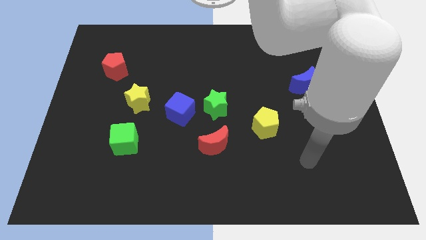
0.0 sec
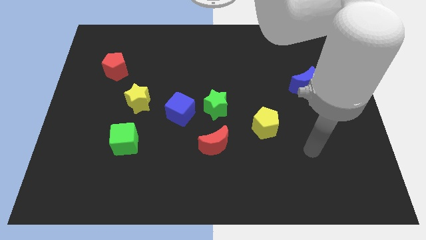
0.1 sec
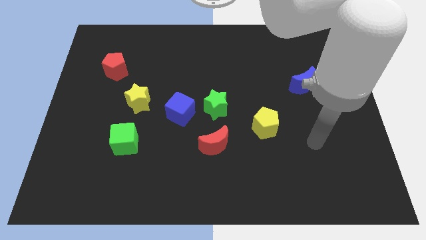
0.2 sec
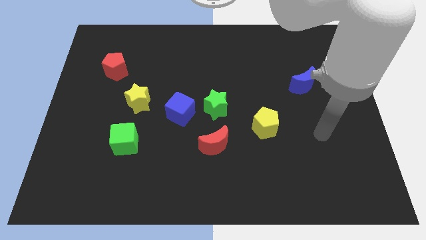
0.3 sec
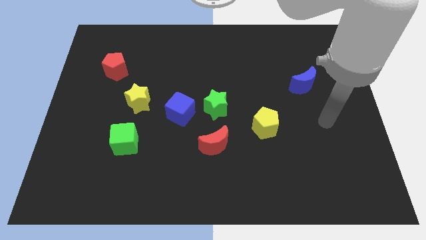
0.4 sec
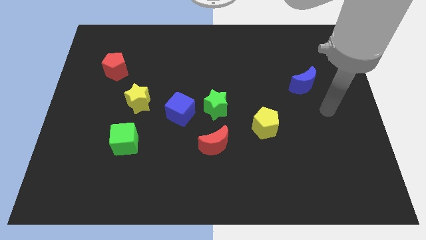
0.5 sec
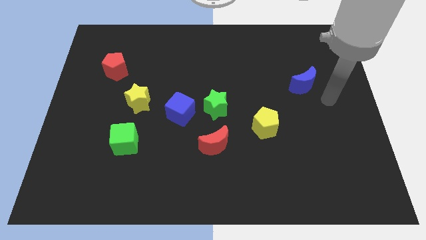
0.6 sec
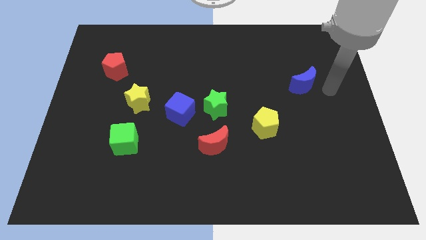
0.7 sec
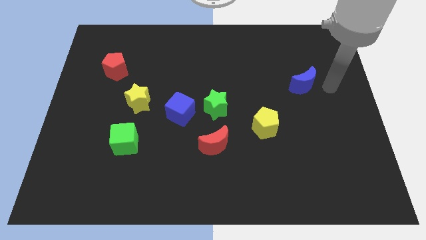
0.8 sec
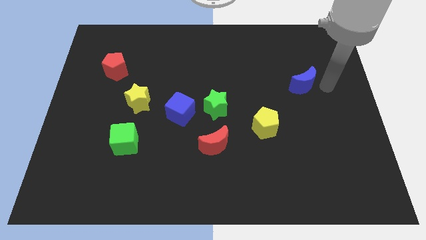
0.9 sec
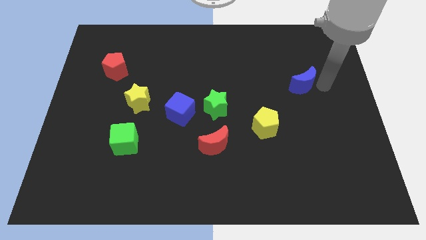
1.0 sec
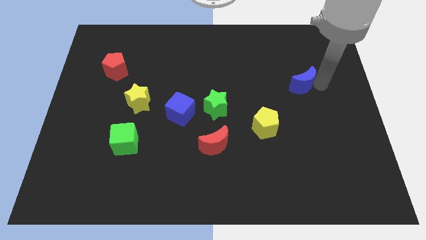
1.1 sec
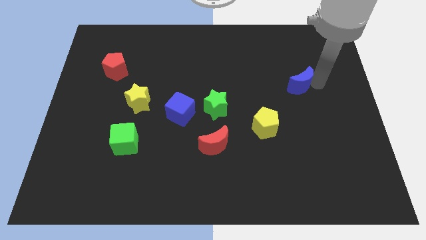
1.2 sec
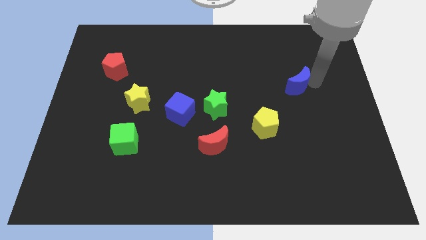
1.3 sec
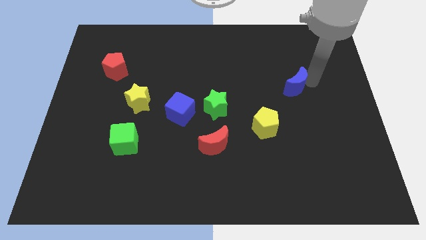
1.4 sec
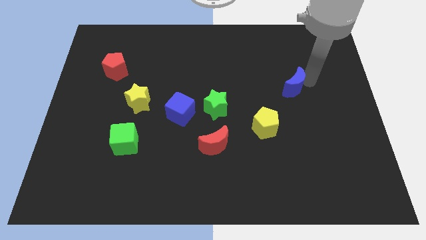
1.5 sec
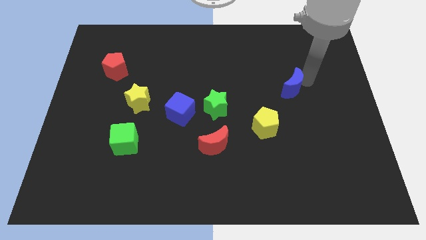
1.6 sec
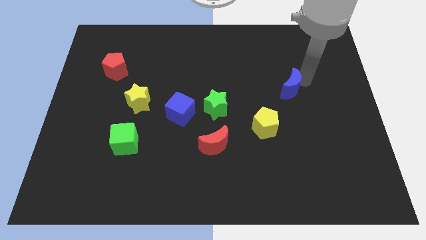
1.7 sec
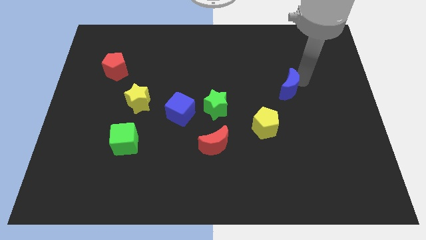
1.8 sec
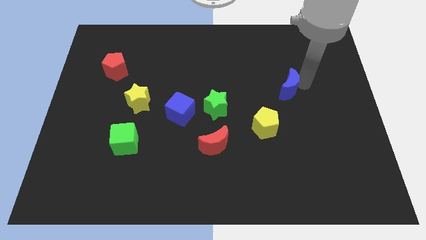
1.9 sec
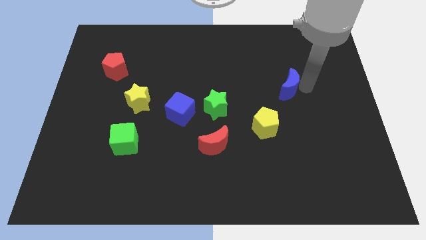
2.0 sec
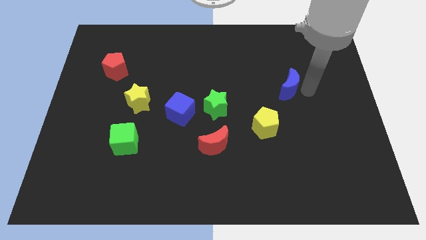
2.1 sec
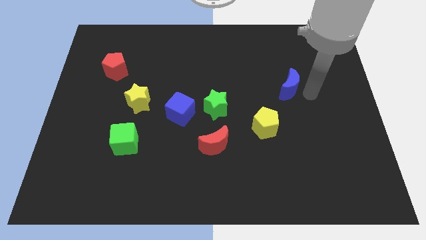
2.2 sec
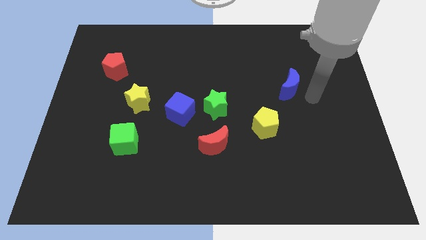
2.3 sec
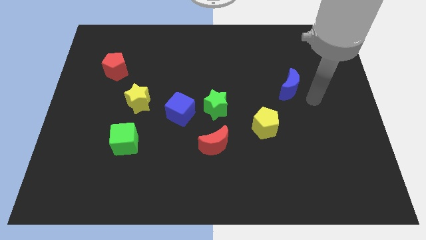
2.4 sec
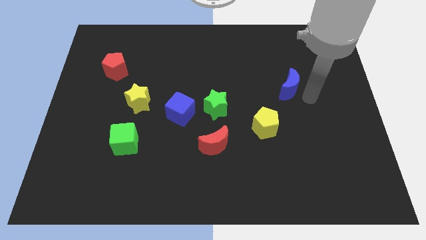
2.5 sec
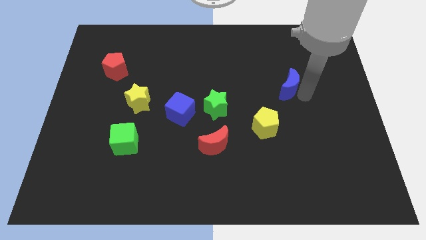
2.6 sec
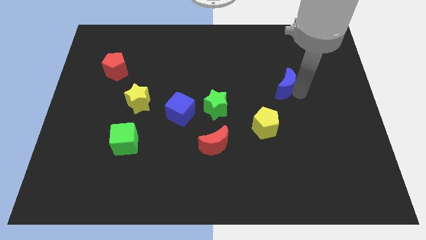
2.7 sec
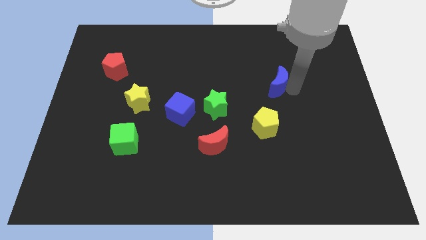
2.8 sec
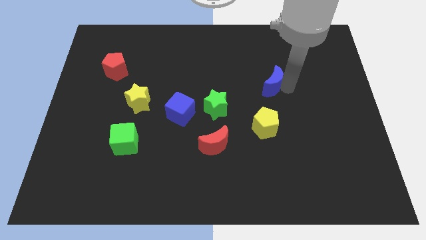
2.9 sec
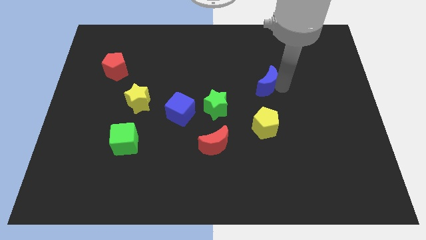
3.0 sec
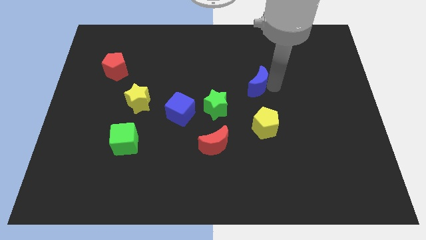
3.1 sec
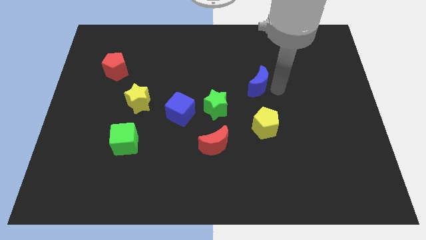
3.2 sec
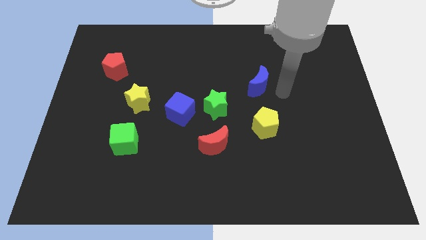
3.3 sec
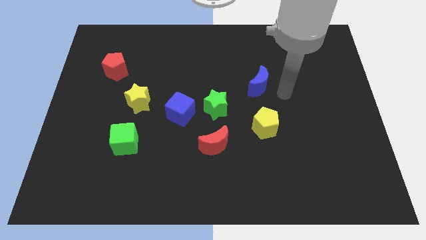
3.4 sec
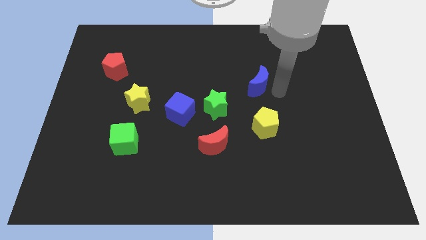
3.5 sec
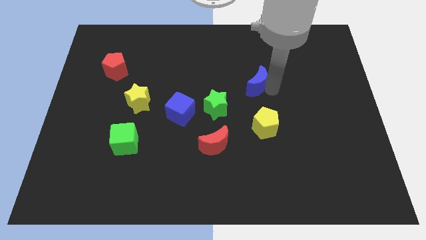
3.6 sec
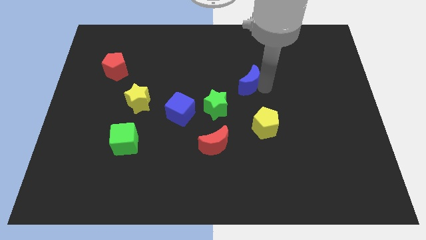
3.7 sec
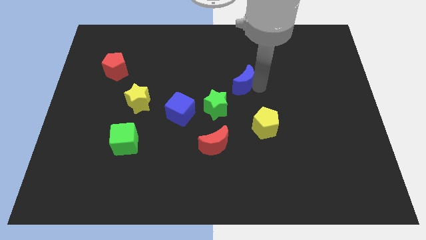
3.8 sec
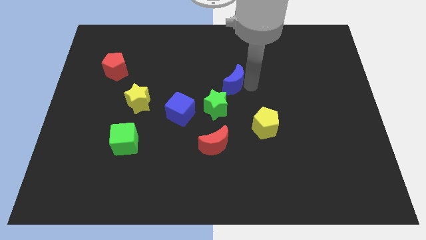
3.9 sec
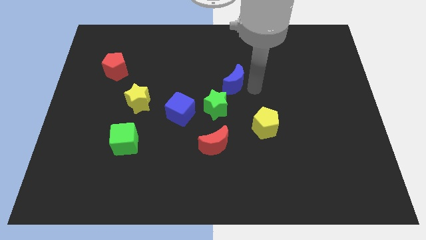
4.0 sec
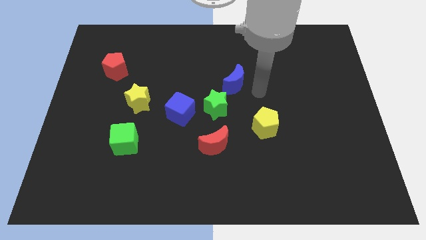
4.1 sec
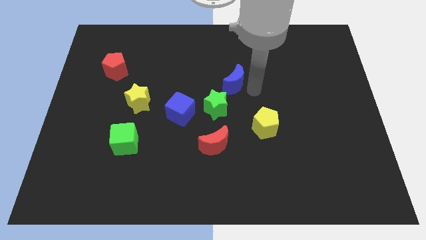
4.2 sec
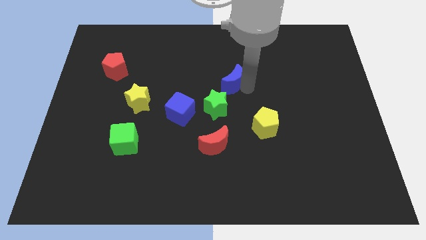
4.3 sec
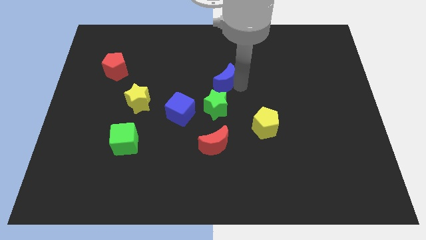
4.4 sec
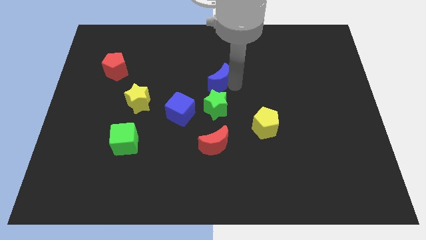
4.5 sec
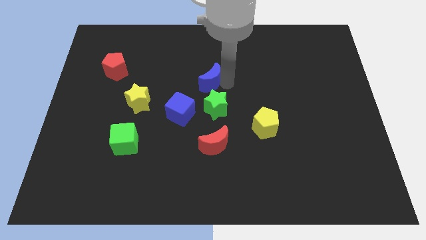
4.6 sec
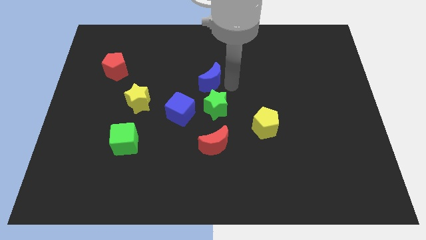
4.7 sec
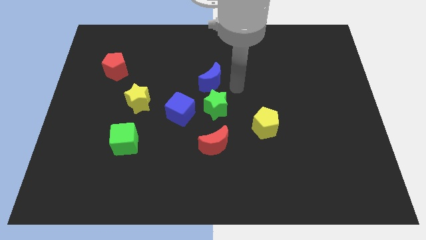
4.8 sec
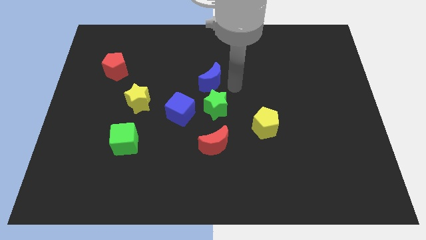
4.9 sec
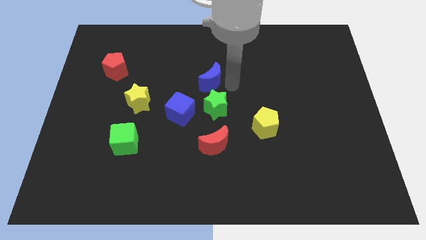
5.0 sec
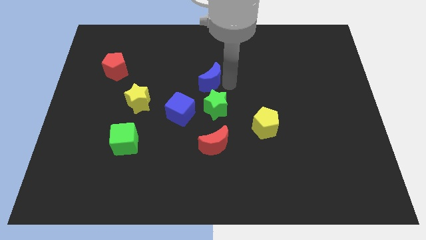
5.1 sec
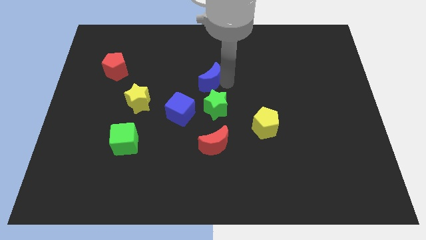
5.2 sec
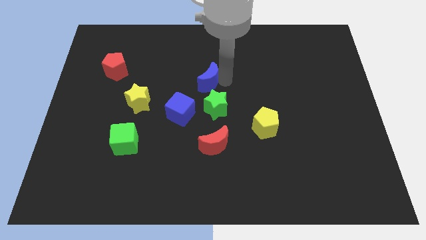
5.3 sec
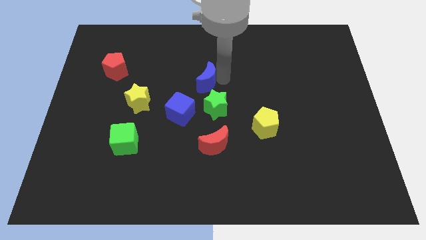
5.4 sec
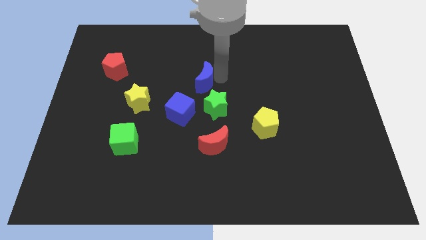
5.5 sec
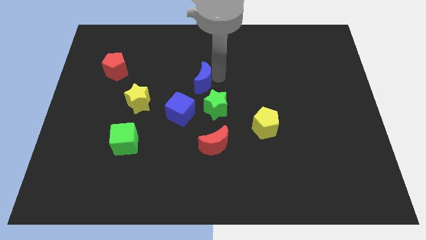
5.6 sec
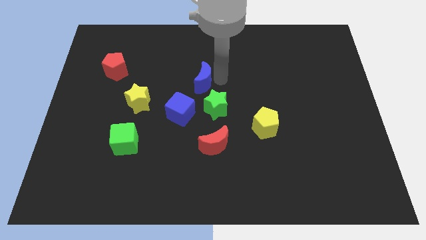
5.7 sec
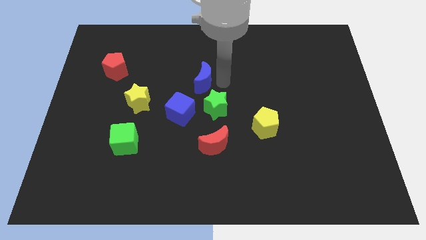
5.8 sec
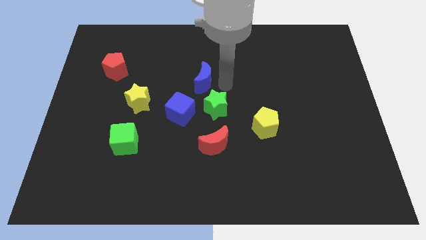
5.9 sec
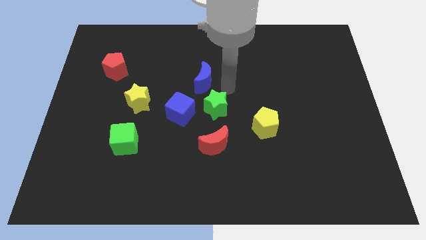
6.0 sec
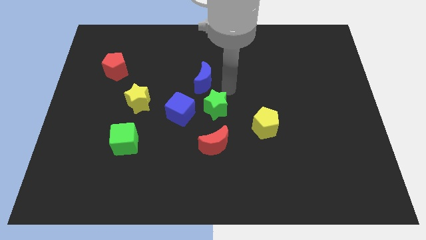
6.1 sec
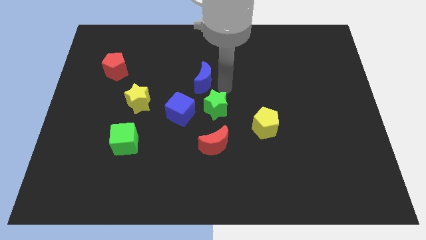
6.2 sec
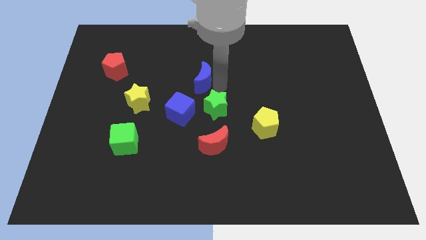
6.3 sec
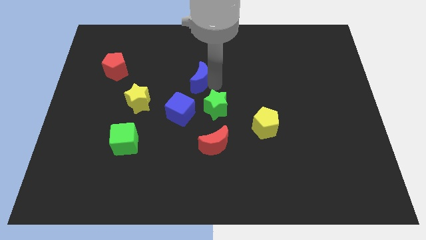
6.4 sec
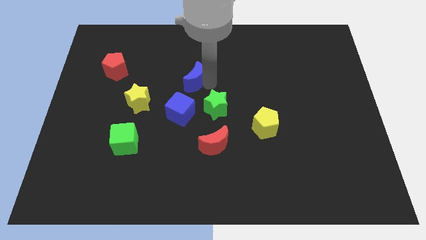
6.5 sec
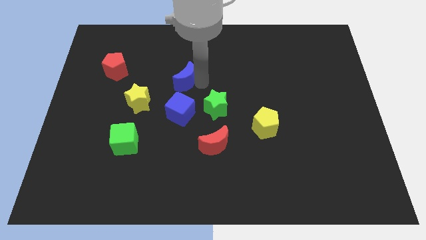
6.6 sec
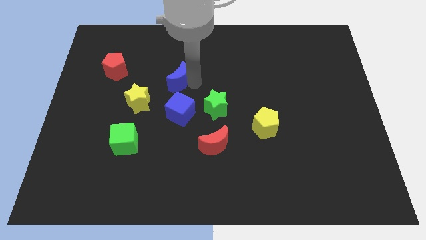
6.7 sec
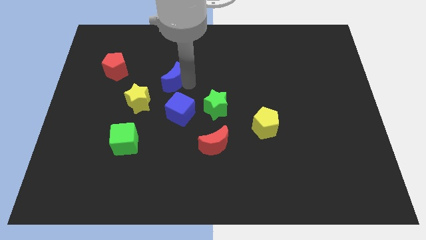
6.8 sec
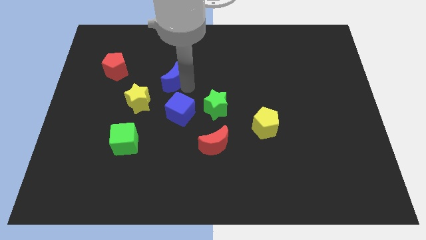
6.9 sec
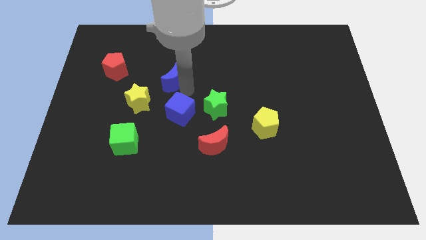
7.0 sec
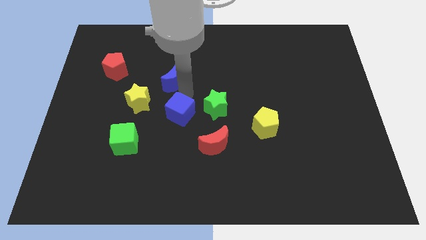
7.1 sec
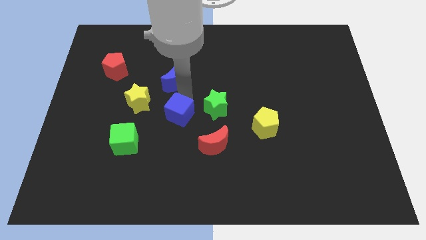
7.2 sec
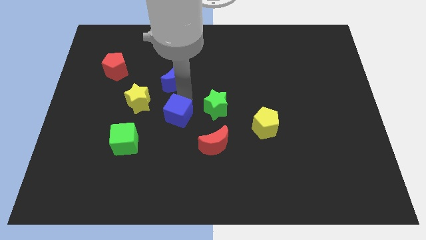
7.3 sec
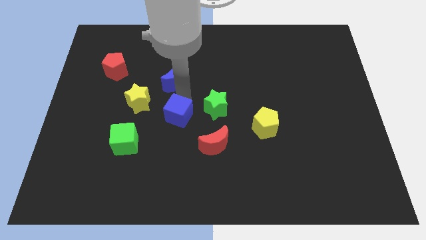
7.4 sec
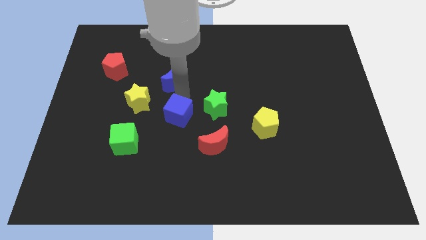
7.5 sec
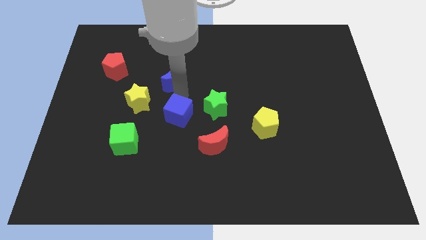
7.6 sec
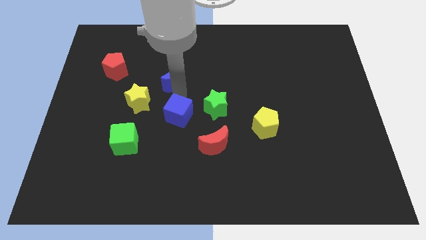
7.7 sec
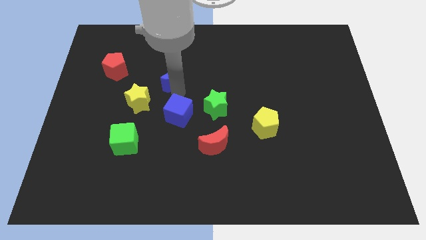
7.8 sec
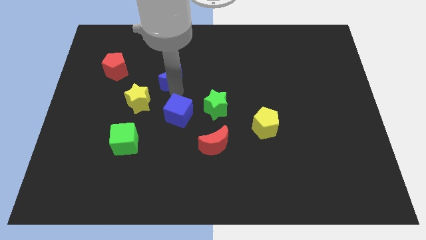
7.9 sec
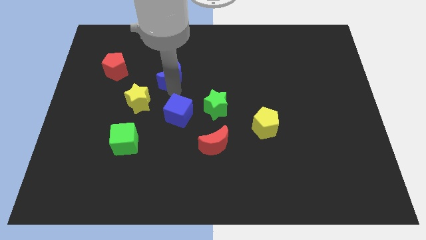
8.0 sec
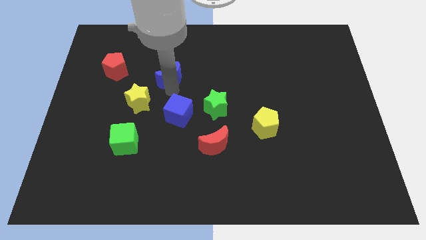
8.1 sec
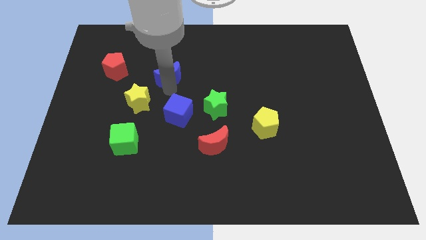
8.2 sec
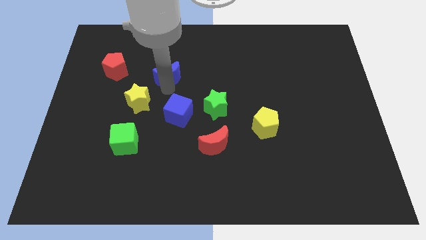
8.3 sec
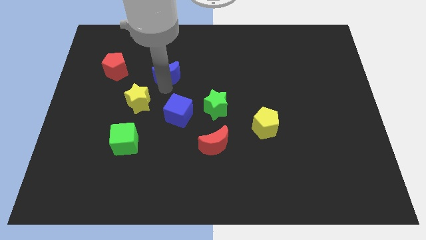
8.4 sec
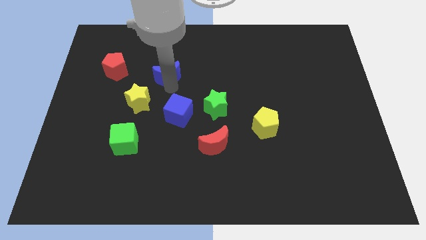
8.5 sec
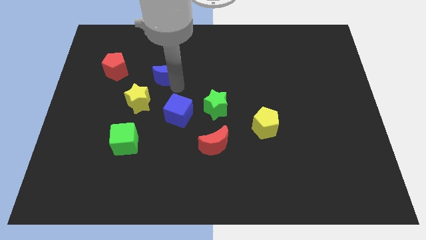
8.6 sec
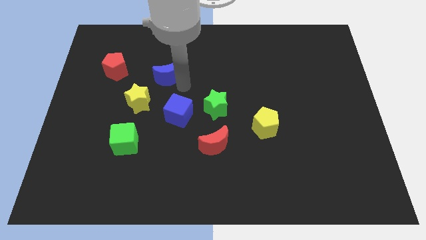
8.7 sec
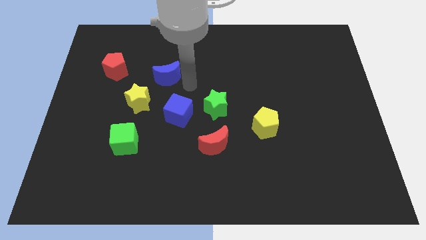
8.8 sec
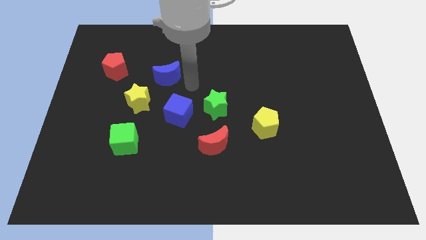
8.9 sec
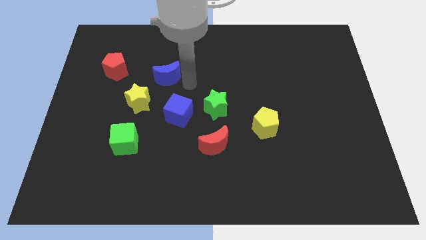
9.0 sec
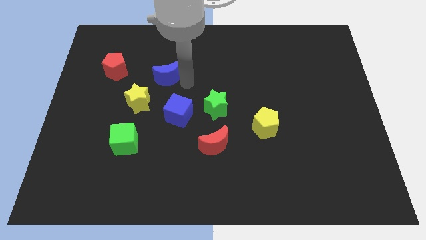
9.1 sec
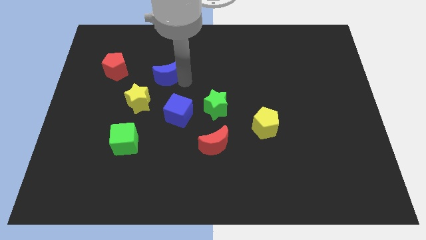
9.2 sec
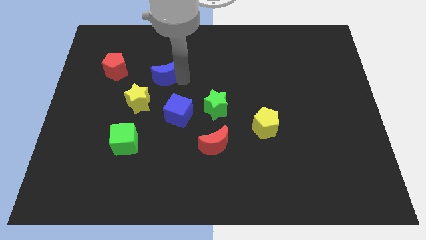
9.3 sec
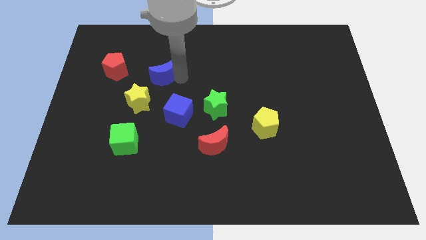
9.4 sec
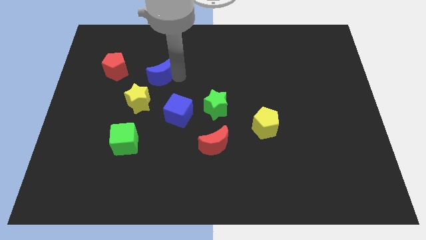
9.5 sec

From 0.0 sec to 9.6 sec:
move the blue moon above the yellow star
